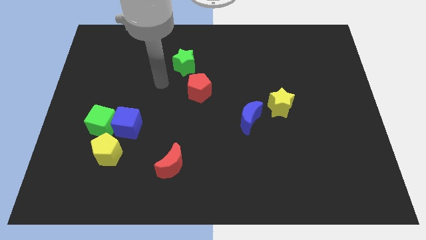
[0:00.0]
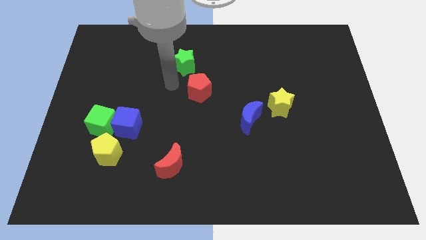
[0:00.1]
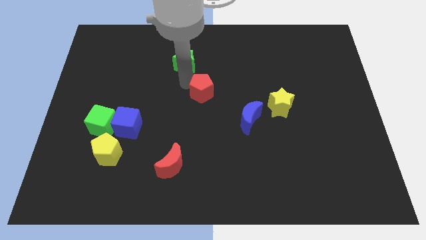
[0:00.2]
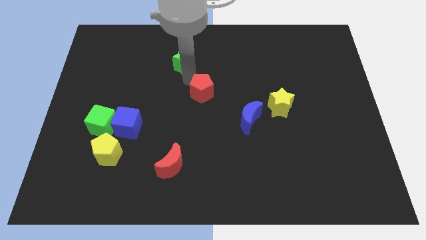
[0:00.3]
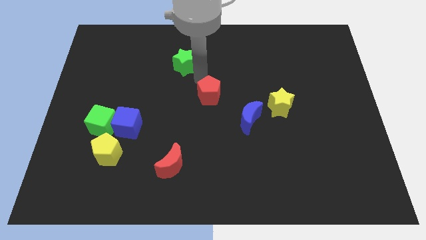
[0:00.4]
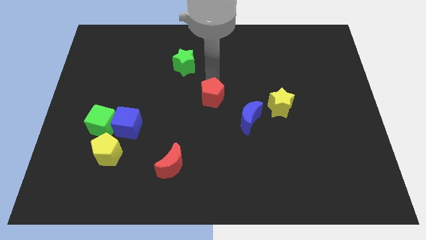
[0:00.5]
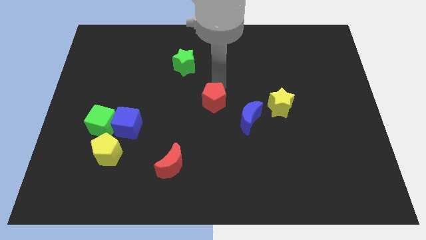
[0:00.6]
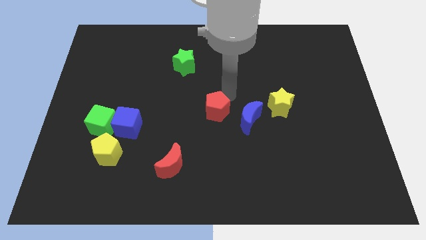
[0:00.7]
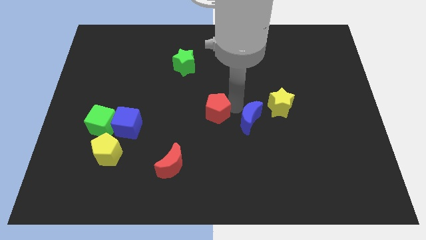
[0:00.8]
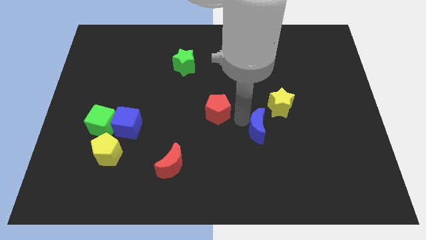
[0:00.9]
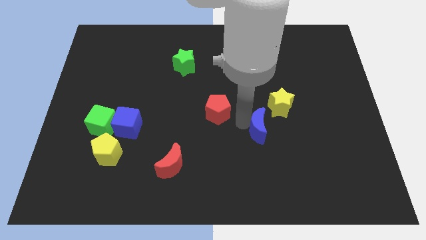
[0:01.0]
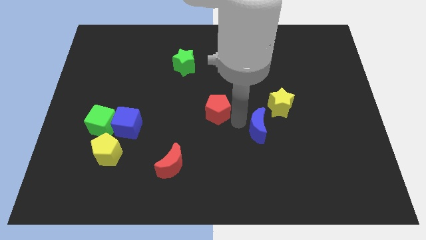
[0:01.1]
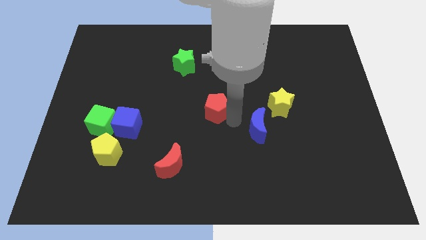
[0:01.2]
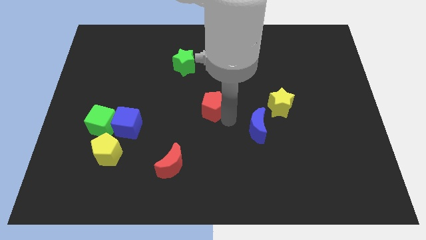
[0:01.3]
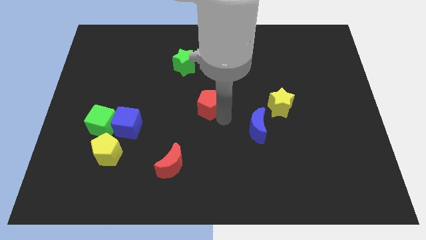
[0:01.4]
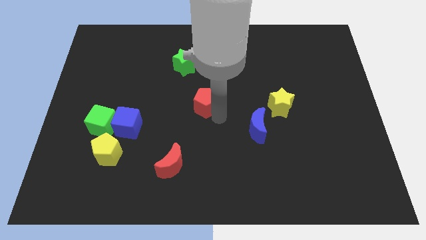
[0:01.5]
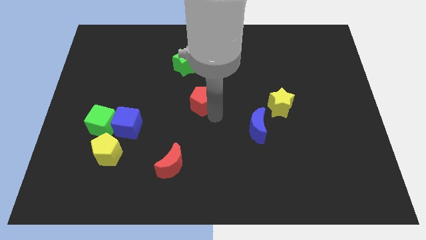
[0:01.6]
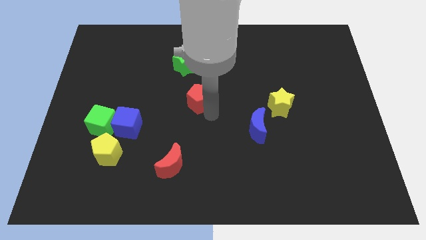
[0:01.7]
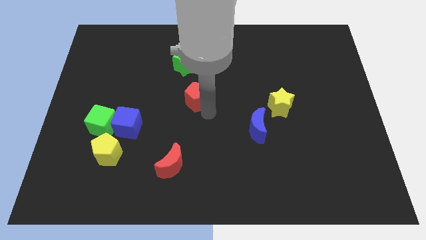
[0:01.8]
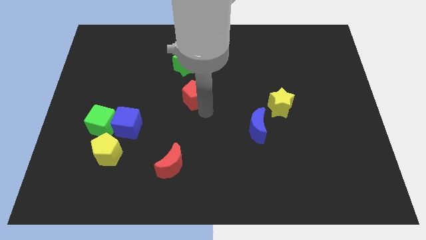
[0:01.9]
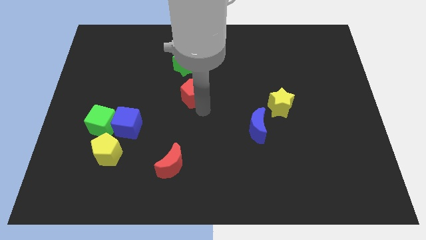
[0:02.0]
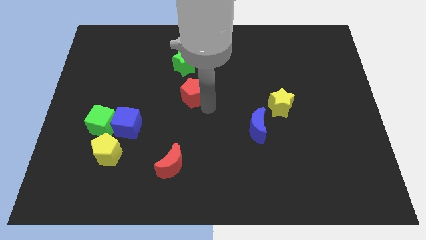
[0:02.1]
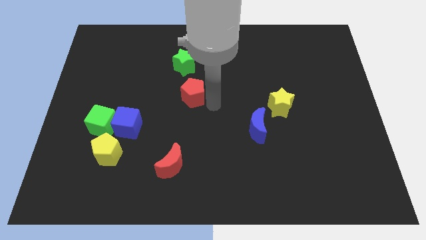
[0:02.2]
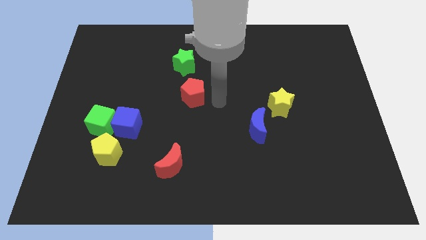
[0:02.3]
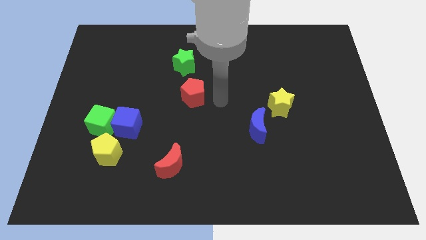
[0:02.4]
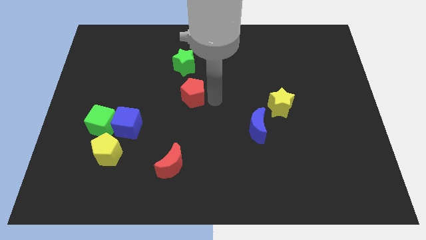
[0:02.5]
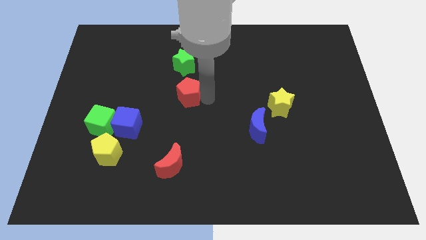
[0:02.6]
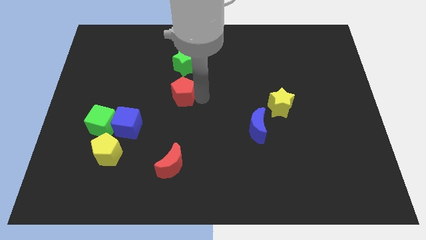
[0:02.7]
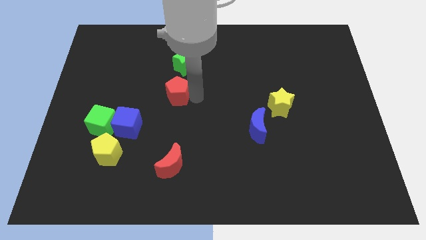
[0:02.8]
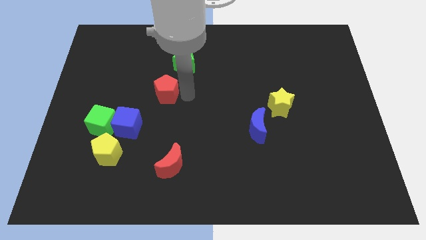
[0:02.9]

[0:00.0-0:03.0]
move the red pentagon a little bit to the left

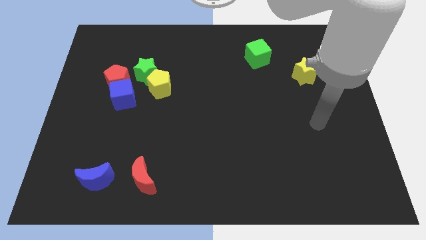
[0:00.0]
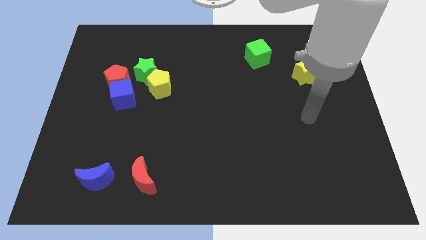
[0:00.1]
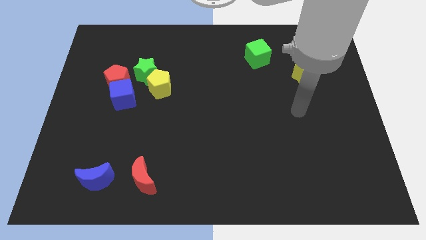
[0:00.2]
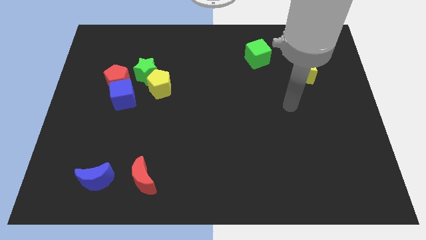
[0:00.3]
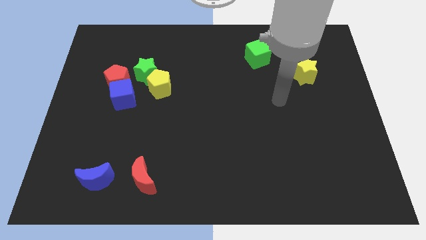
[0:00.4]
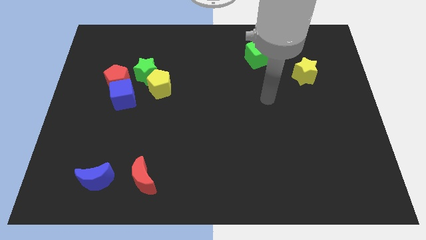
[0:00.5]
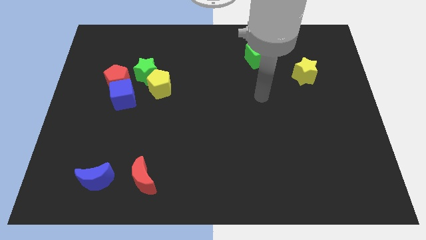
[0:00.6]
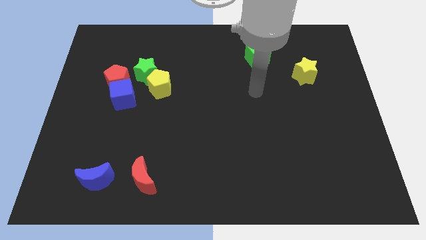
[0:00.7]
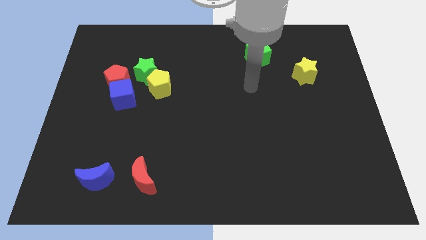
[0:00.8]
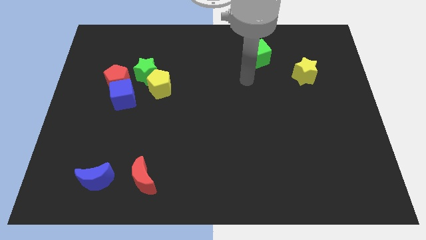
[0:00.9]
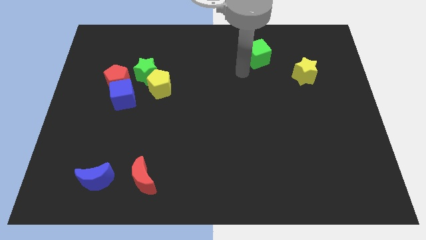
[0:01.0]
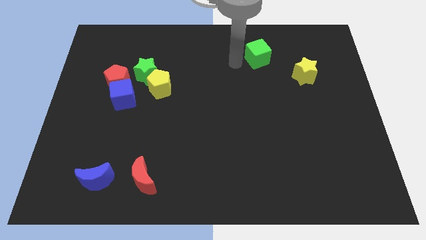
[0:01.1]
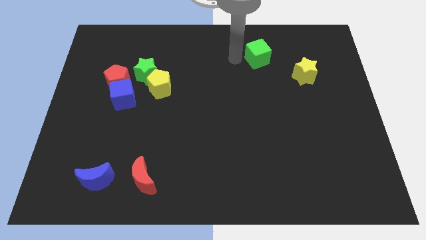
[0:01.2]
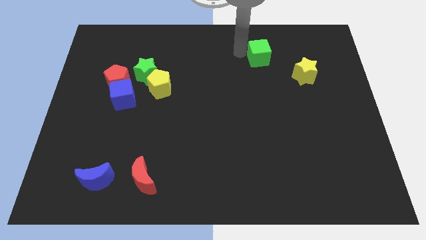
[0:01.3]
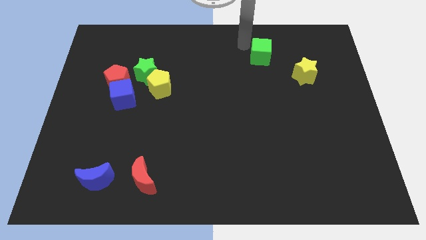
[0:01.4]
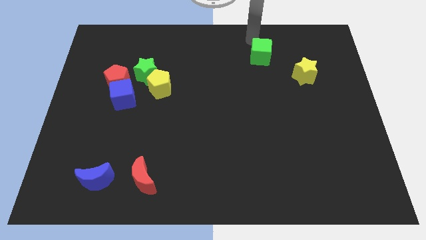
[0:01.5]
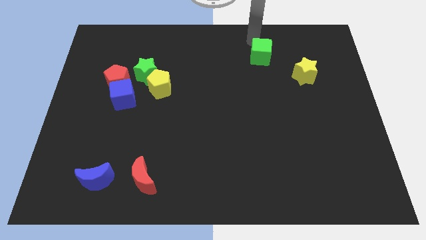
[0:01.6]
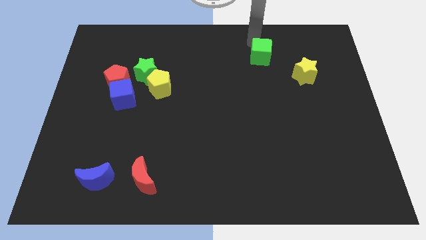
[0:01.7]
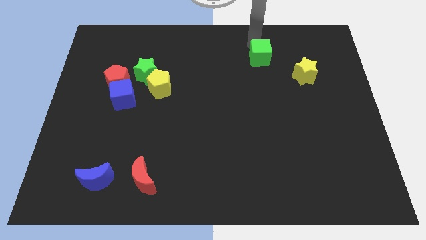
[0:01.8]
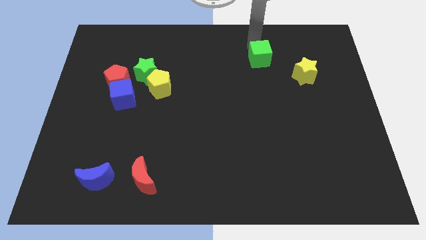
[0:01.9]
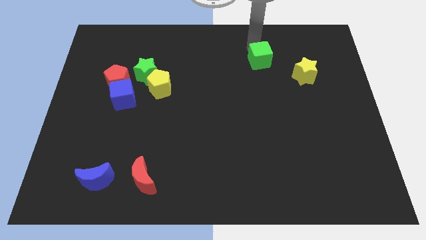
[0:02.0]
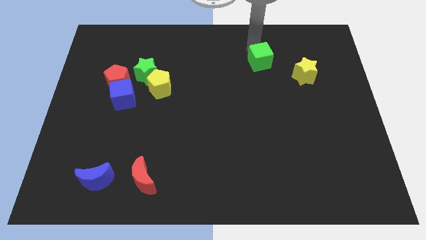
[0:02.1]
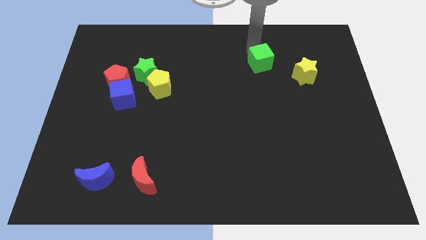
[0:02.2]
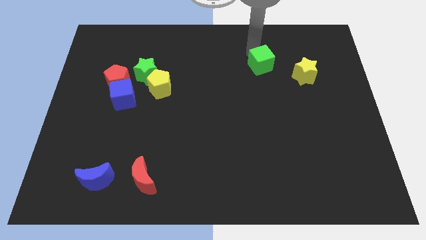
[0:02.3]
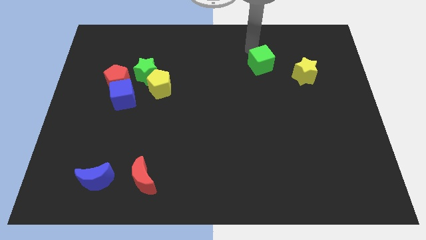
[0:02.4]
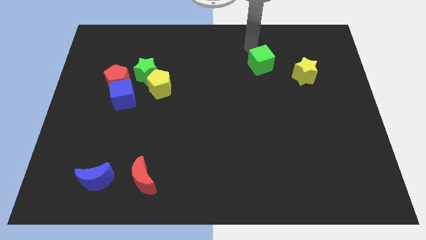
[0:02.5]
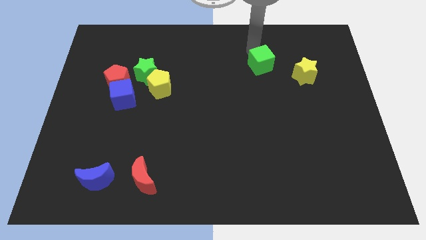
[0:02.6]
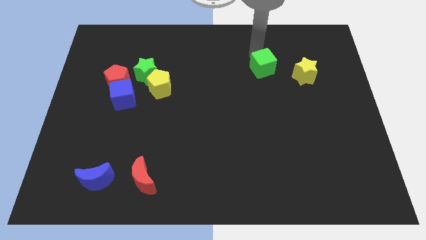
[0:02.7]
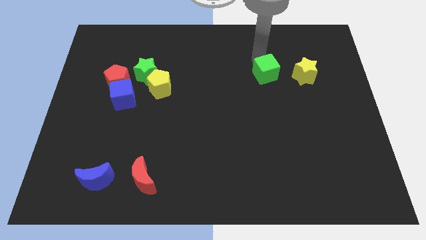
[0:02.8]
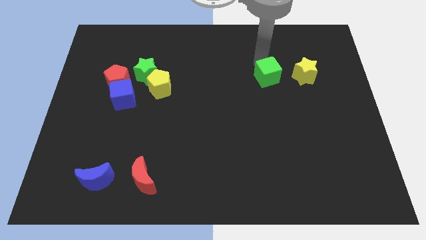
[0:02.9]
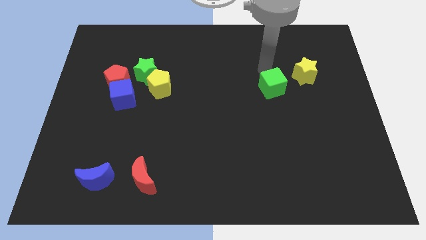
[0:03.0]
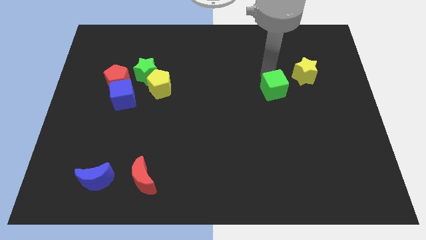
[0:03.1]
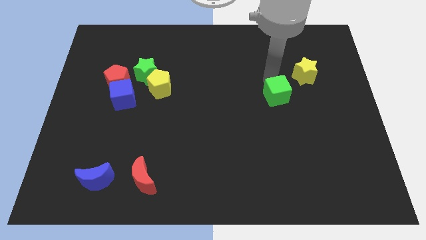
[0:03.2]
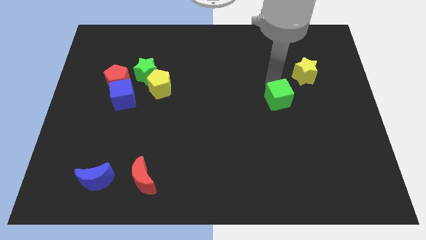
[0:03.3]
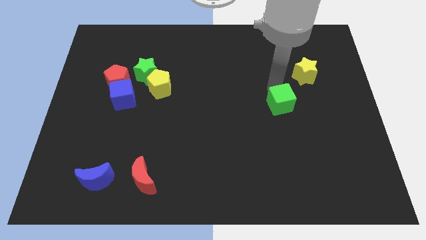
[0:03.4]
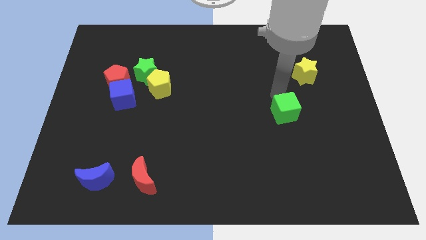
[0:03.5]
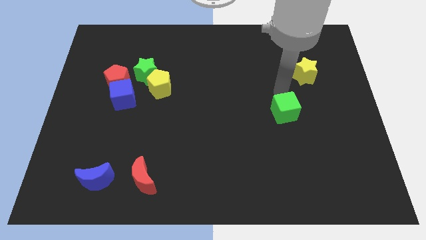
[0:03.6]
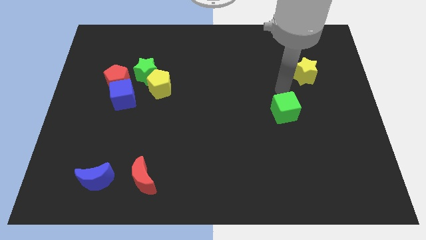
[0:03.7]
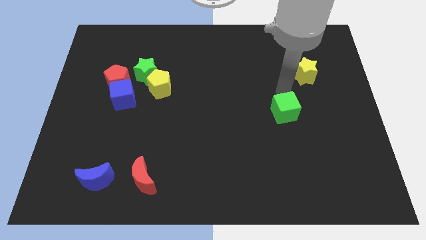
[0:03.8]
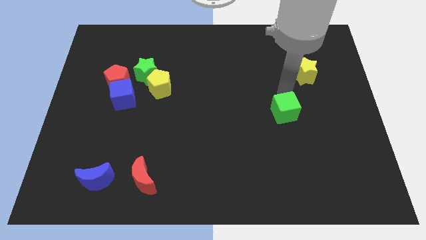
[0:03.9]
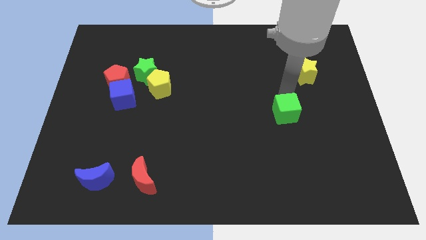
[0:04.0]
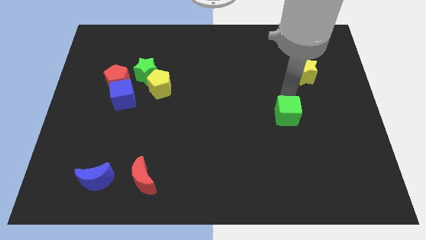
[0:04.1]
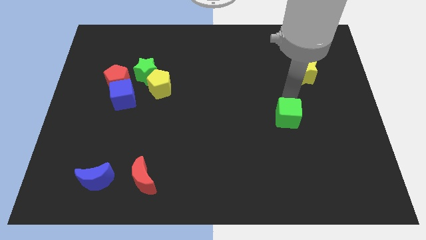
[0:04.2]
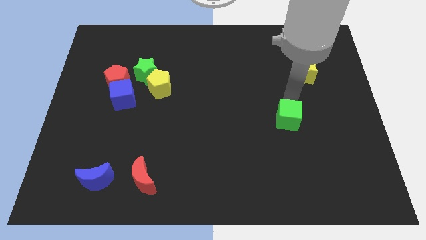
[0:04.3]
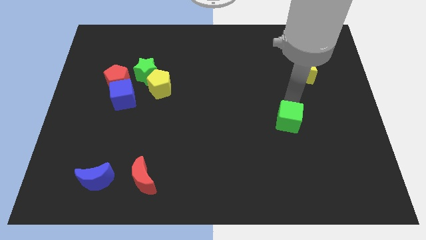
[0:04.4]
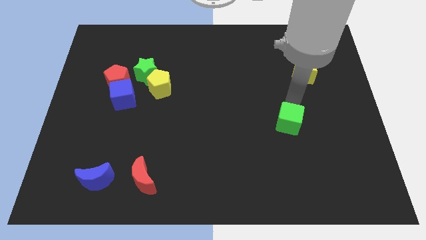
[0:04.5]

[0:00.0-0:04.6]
slide the green cube downwards
